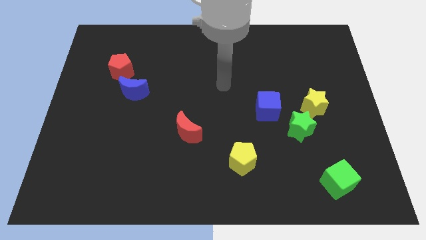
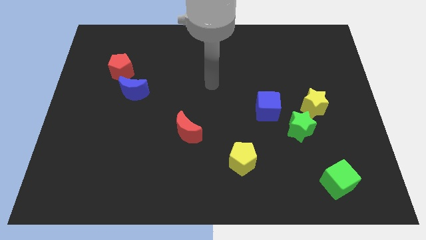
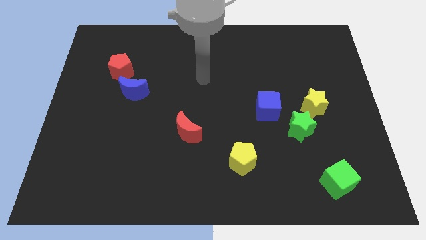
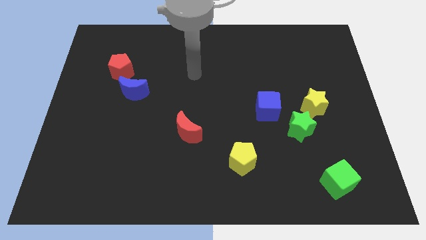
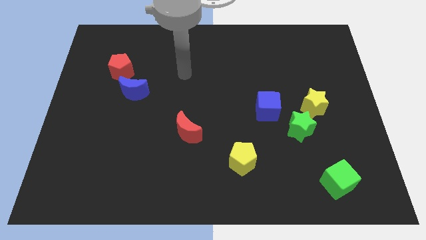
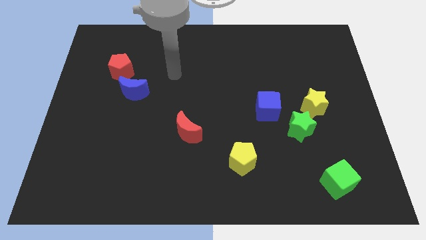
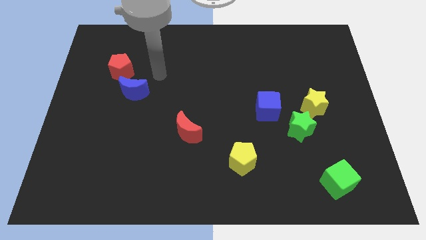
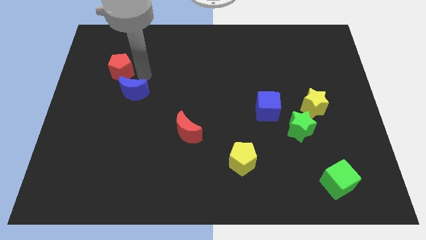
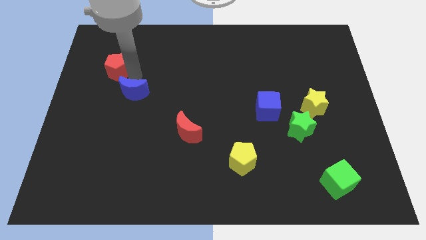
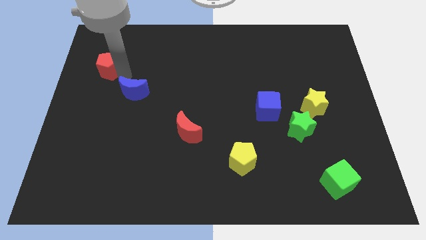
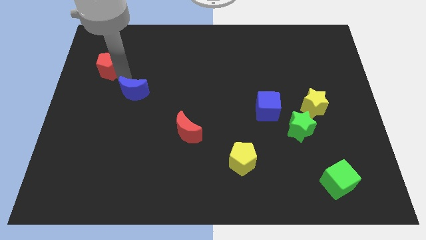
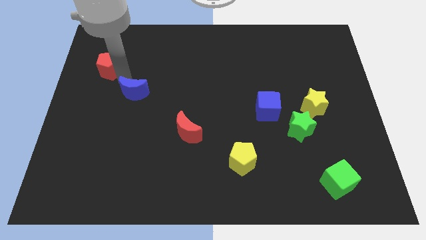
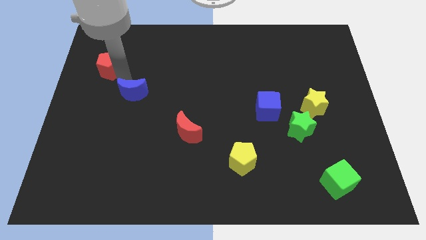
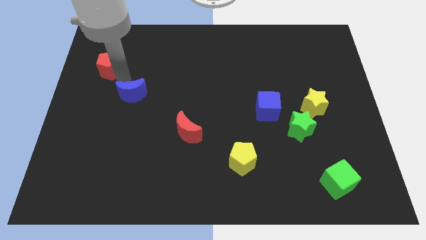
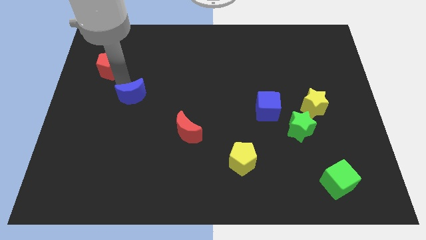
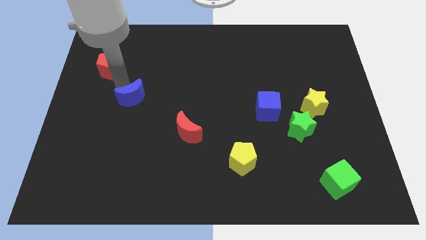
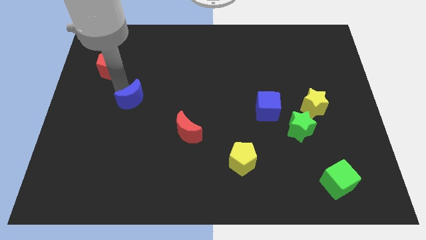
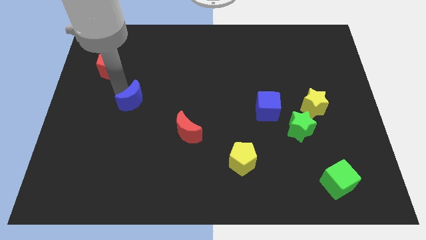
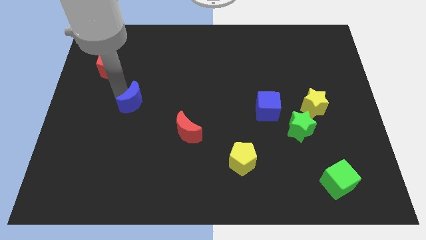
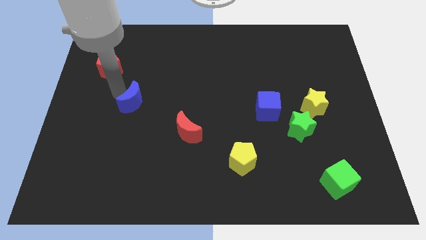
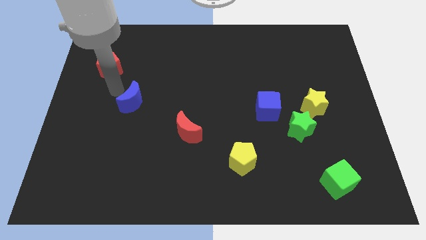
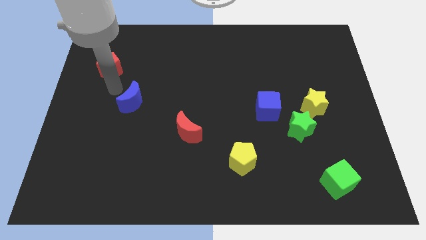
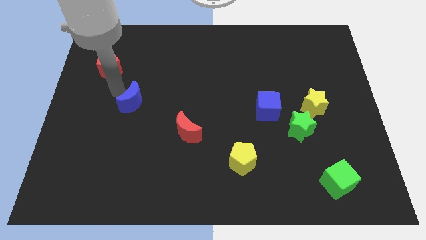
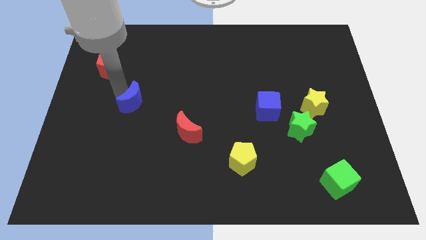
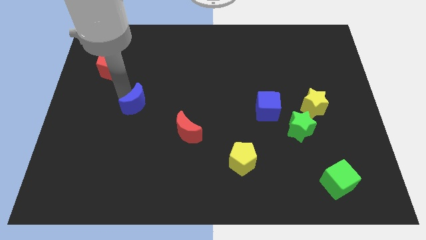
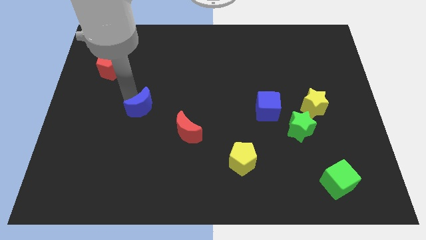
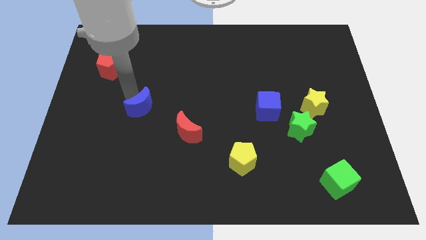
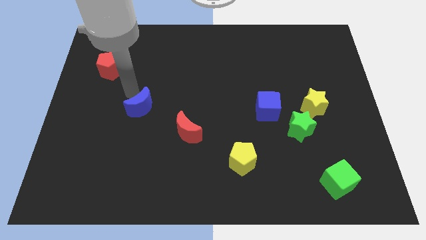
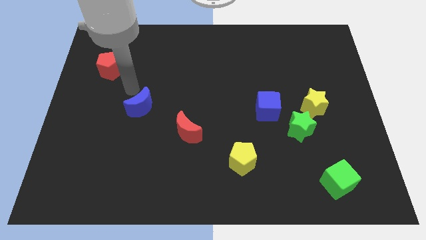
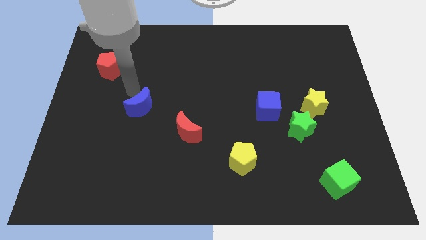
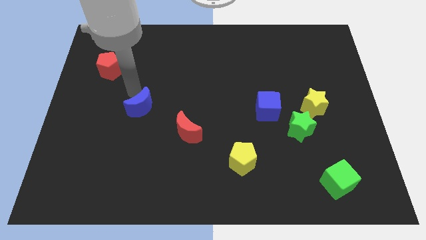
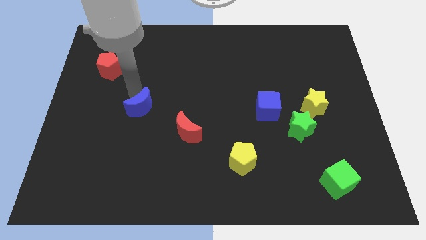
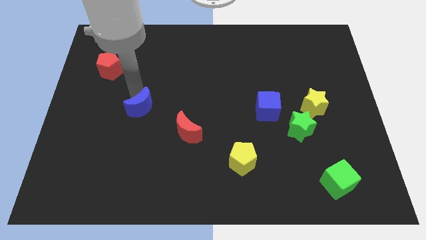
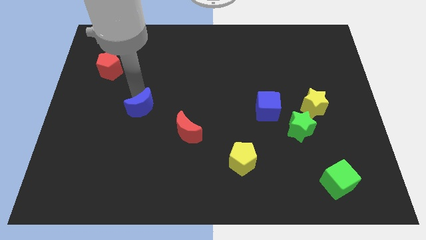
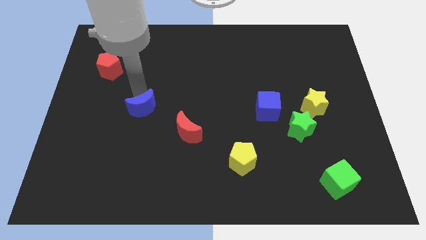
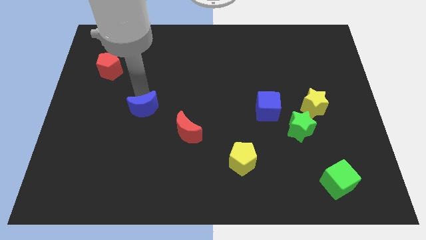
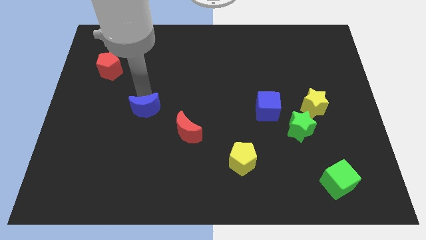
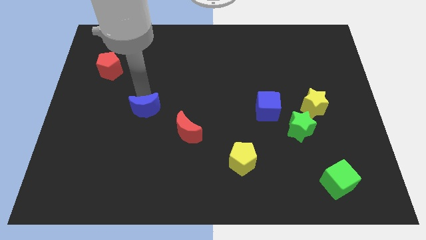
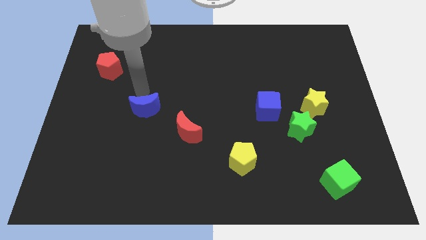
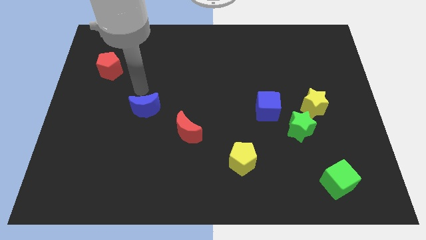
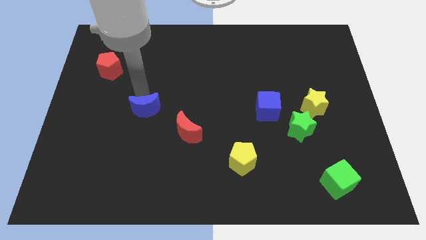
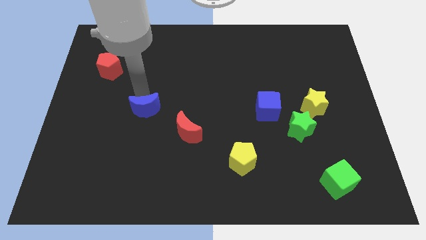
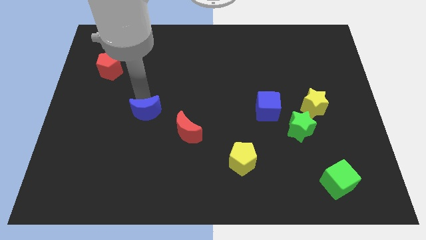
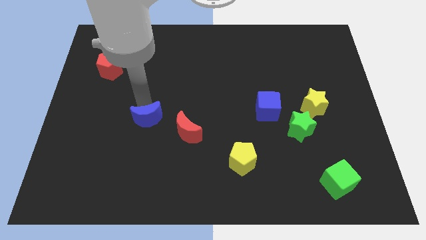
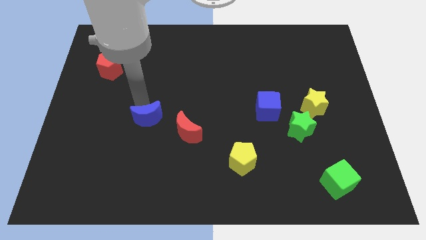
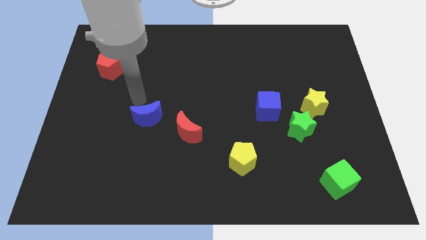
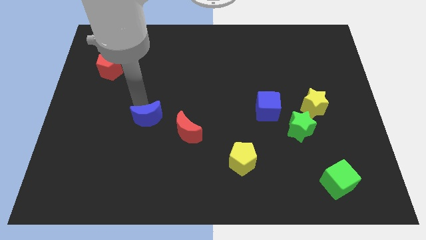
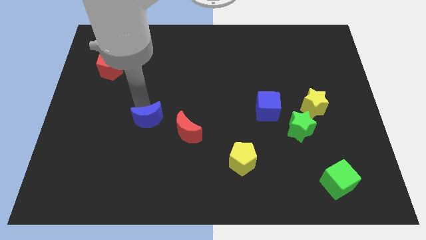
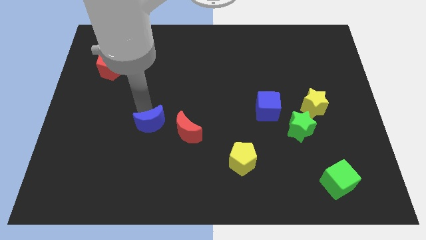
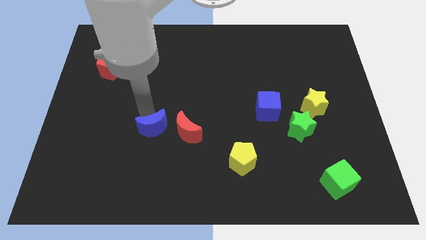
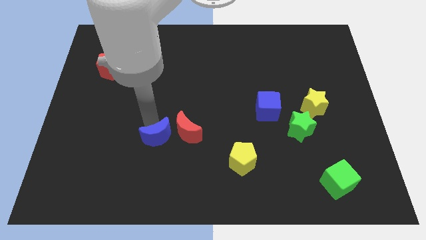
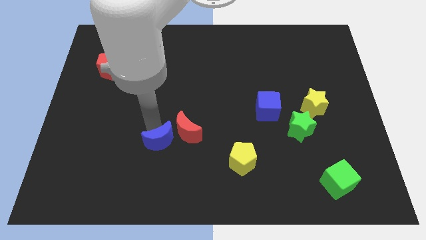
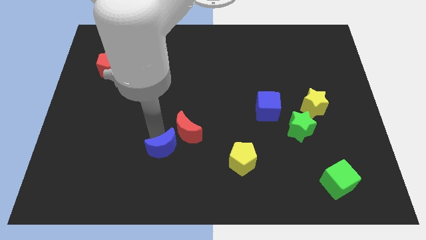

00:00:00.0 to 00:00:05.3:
put the blue moon below the red moon

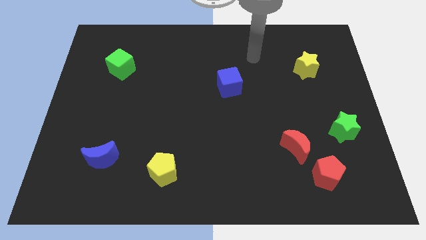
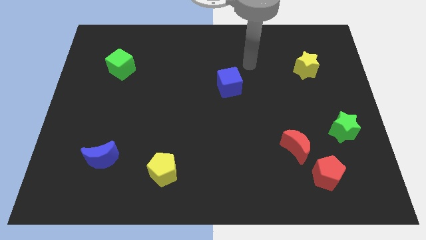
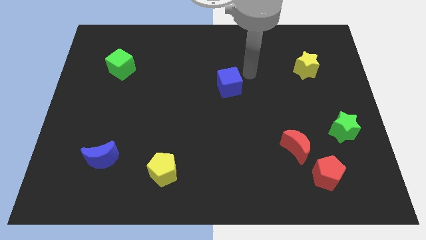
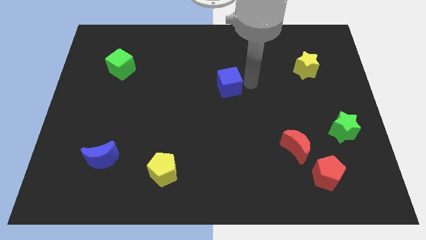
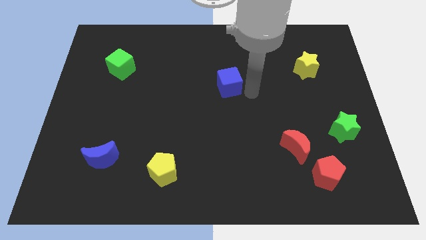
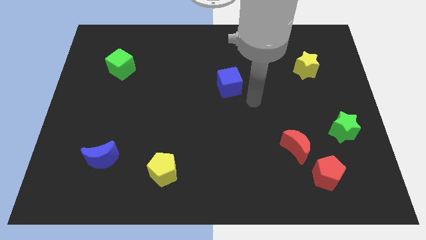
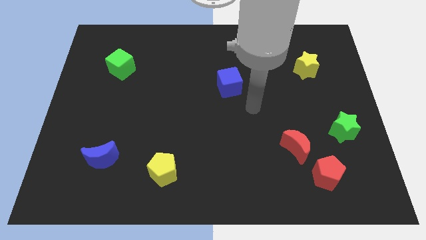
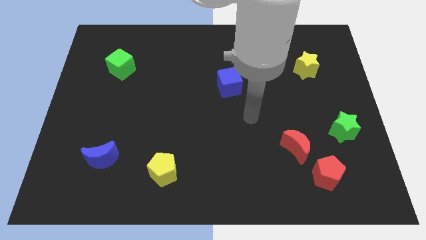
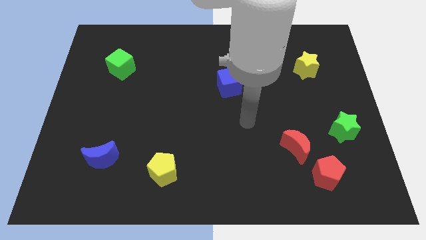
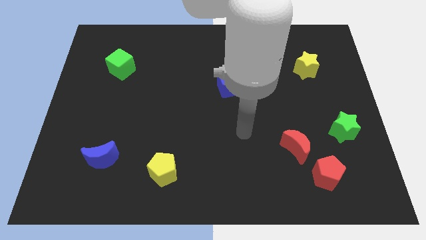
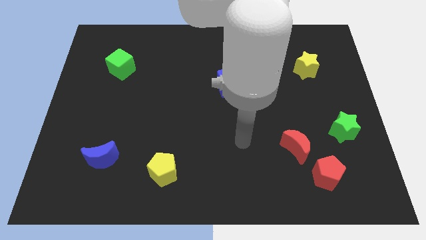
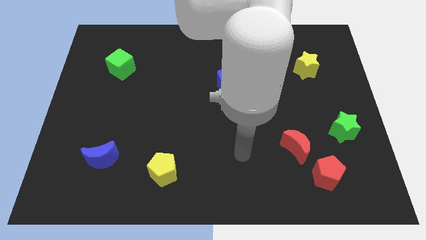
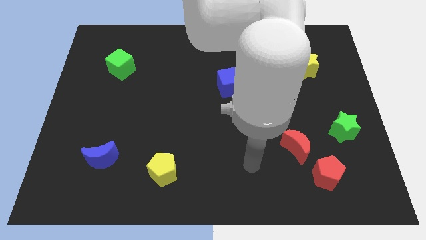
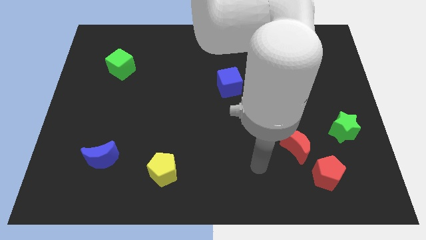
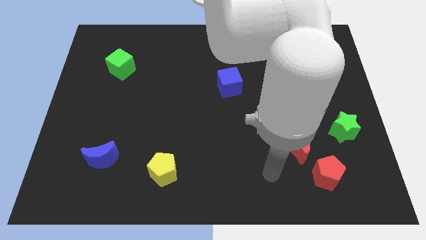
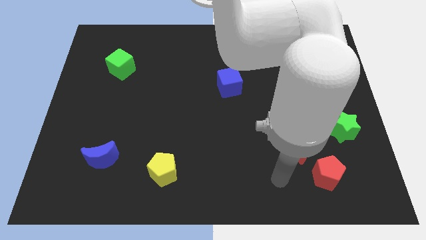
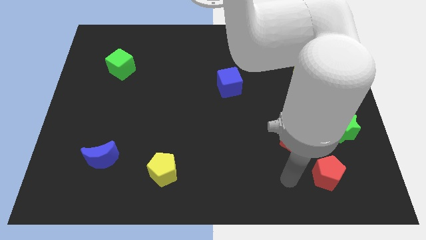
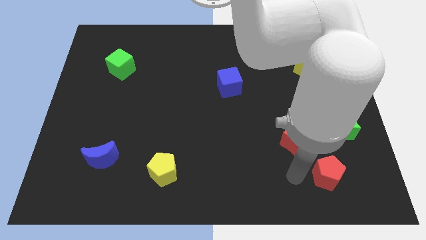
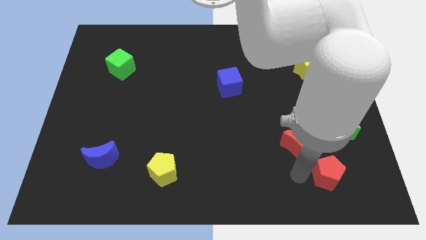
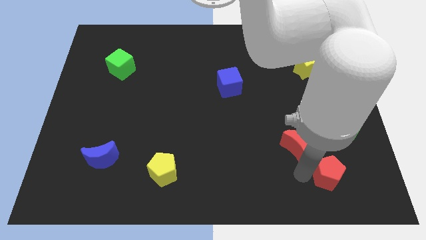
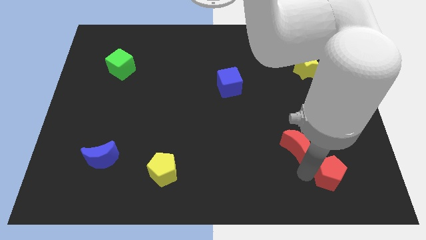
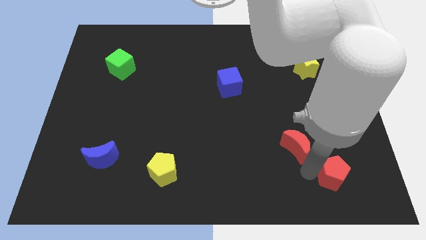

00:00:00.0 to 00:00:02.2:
slide the red pentagon to the bottom side of the green star
